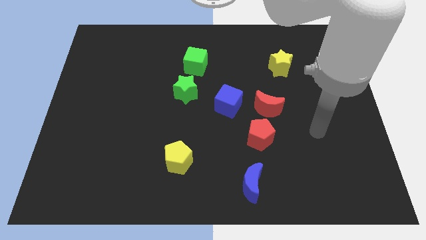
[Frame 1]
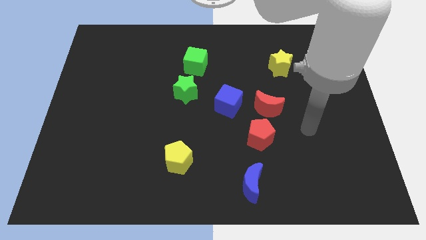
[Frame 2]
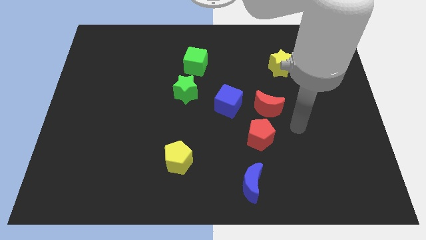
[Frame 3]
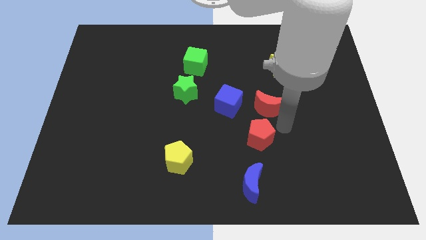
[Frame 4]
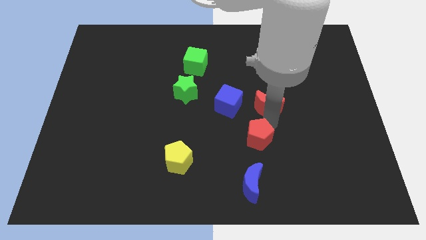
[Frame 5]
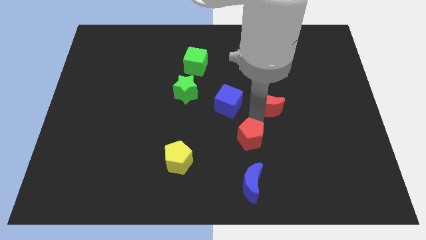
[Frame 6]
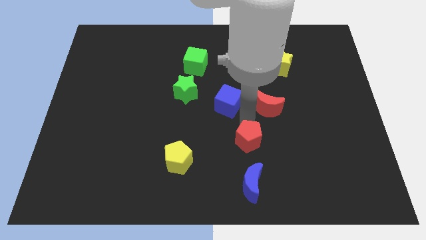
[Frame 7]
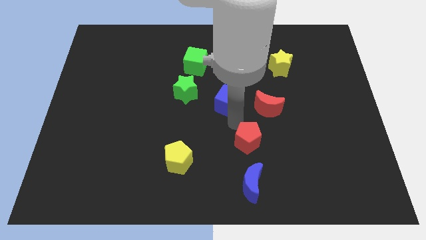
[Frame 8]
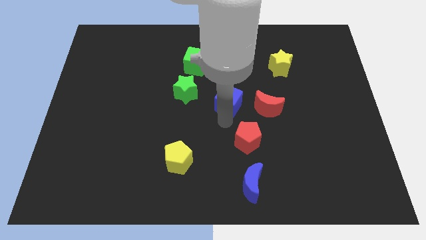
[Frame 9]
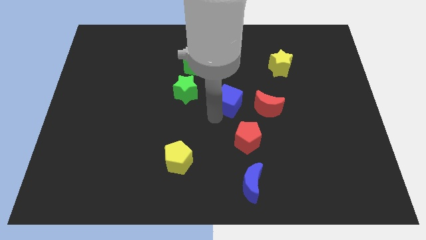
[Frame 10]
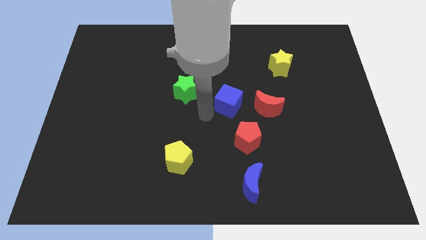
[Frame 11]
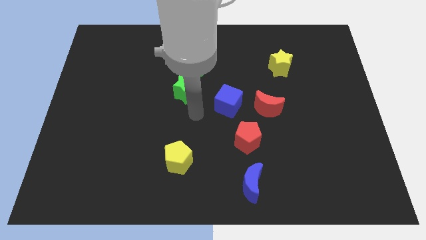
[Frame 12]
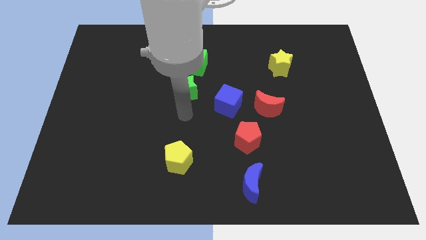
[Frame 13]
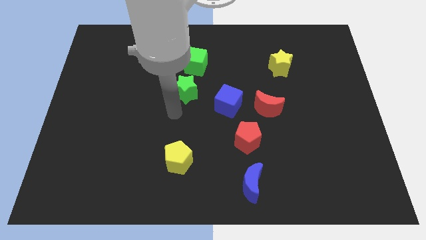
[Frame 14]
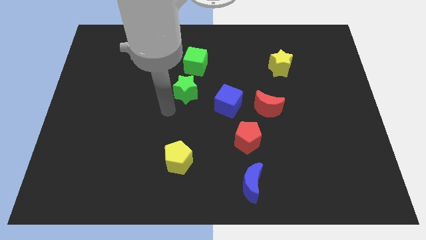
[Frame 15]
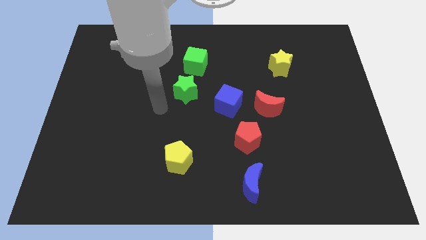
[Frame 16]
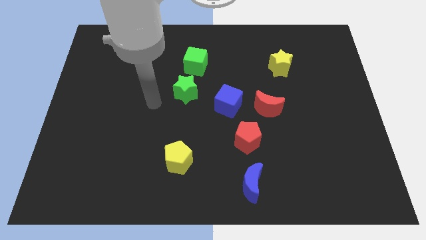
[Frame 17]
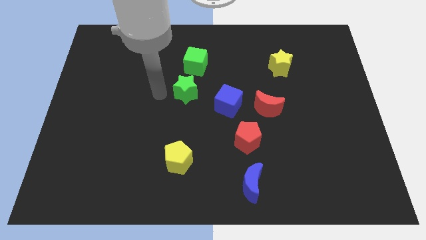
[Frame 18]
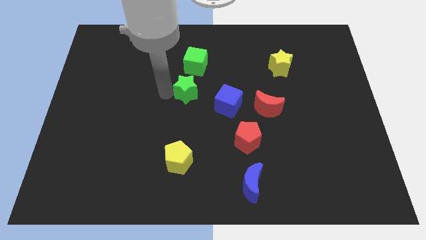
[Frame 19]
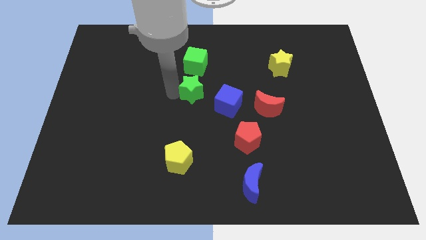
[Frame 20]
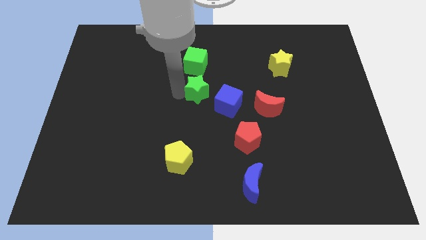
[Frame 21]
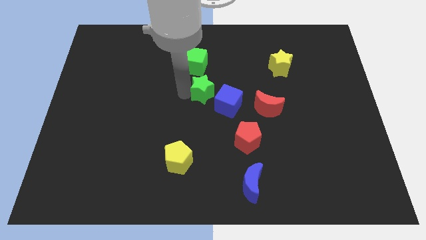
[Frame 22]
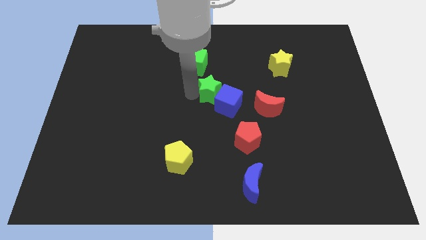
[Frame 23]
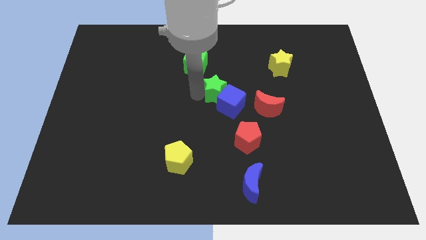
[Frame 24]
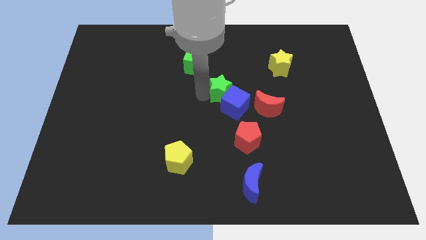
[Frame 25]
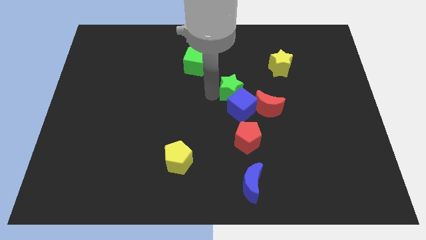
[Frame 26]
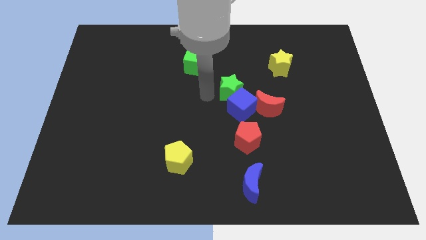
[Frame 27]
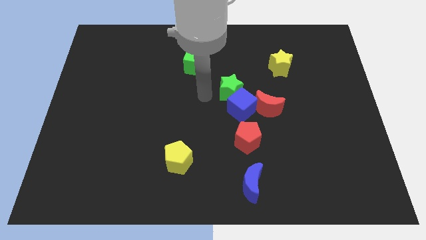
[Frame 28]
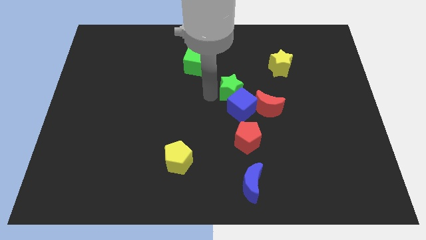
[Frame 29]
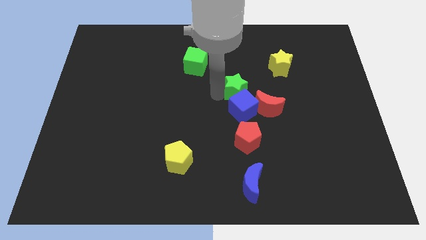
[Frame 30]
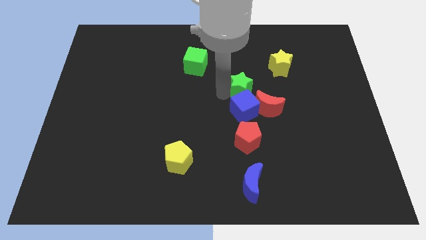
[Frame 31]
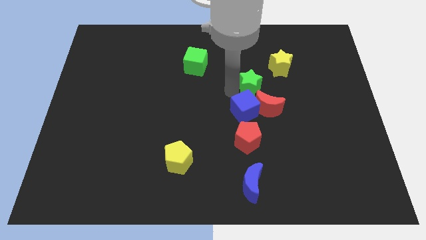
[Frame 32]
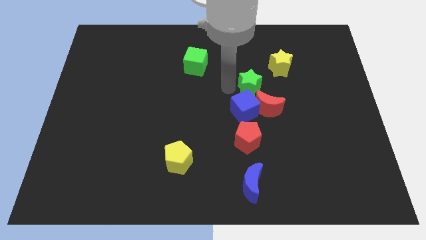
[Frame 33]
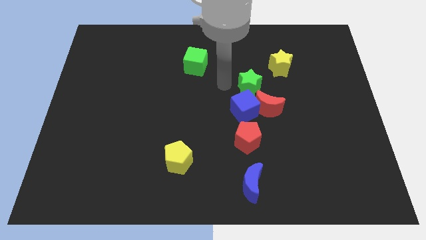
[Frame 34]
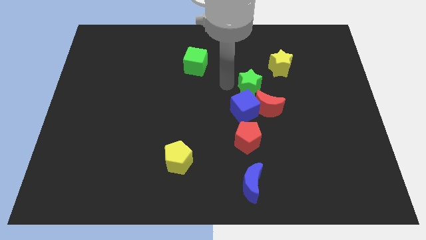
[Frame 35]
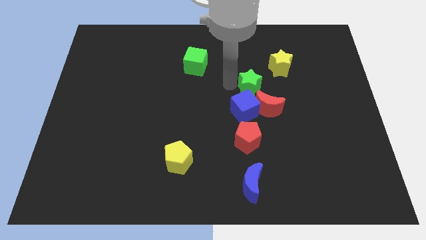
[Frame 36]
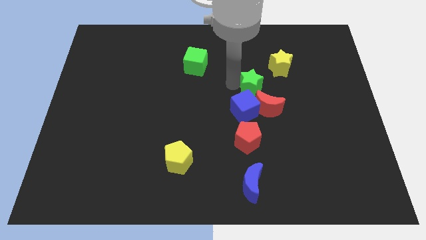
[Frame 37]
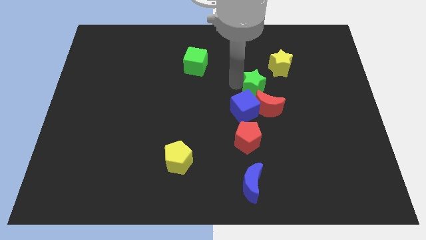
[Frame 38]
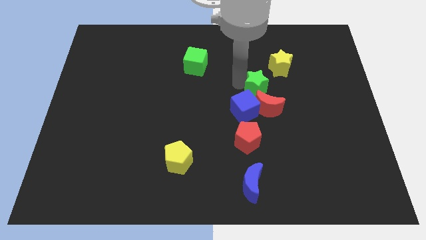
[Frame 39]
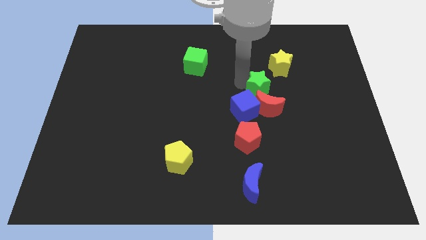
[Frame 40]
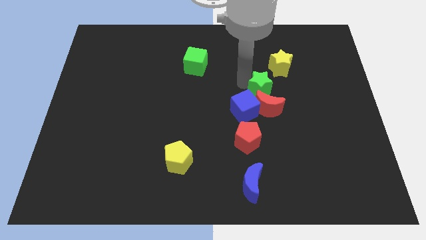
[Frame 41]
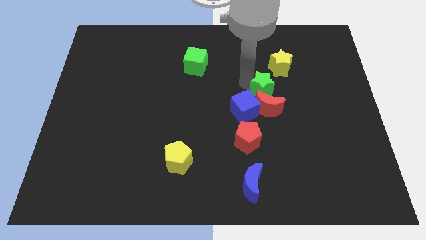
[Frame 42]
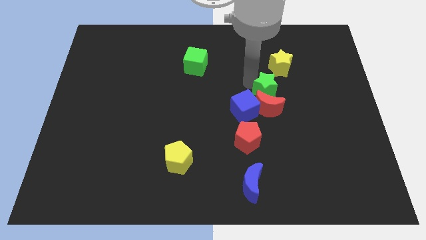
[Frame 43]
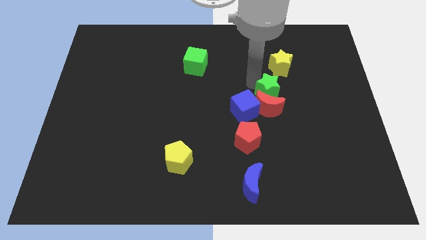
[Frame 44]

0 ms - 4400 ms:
move the green star to the right

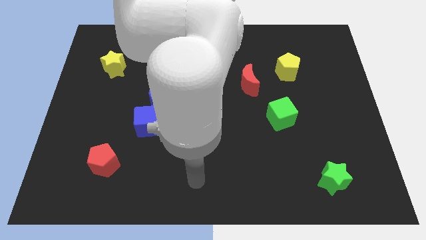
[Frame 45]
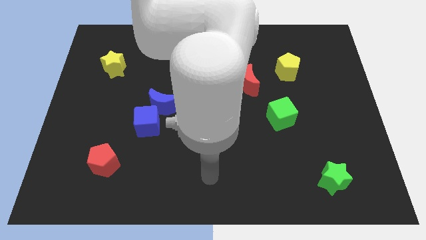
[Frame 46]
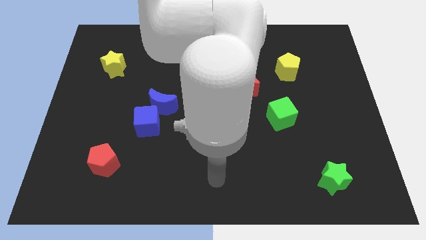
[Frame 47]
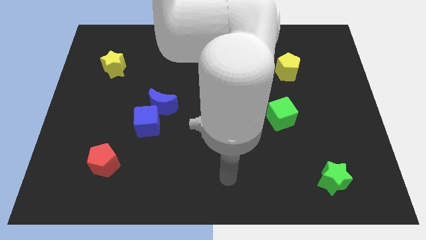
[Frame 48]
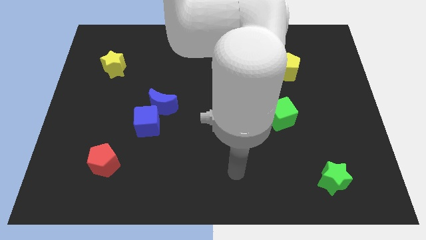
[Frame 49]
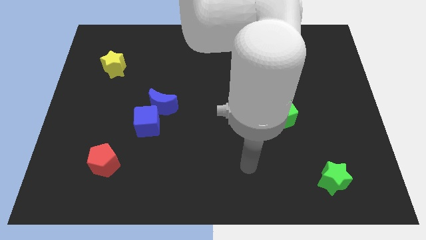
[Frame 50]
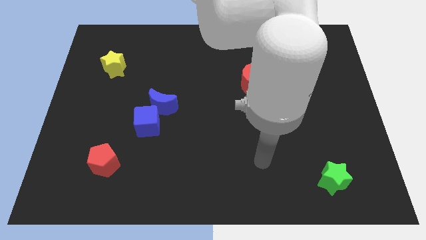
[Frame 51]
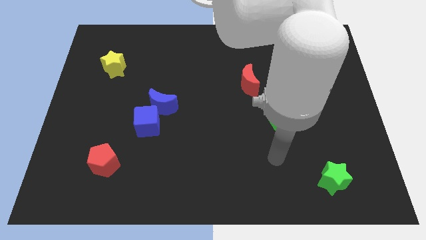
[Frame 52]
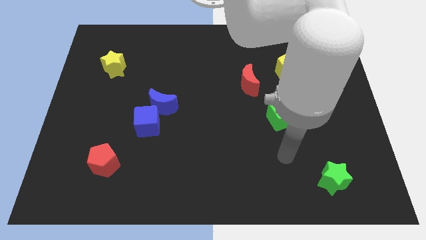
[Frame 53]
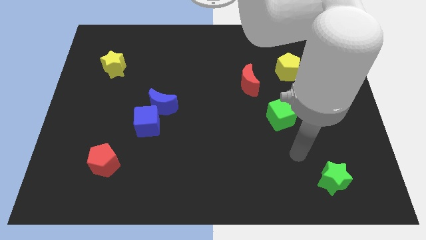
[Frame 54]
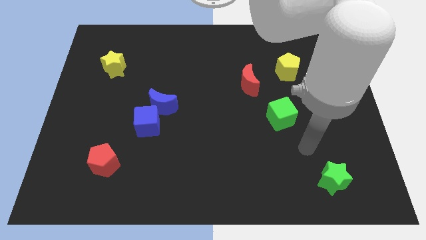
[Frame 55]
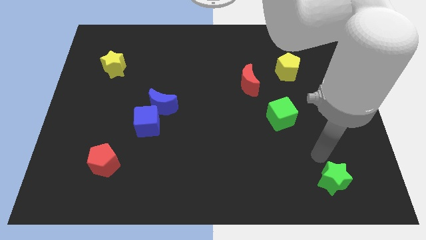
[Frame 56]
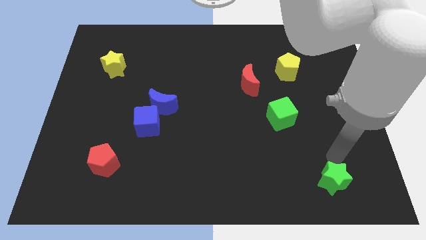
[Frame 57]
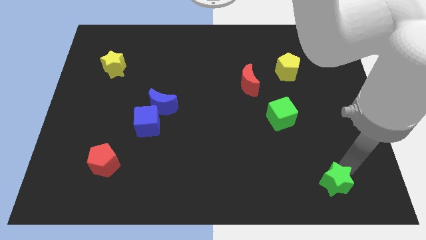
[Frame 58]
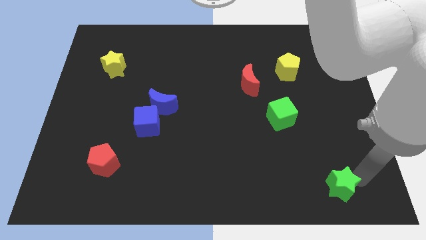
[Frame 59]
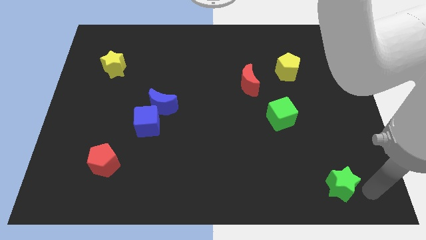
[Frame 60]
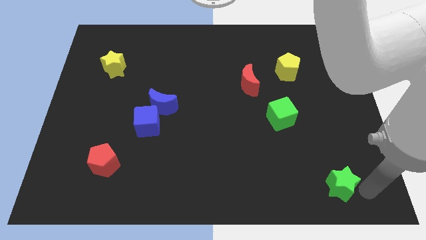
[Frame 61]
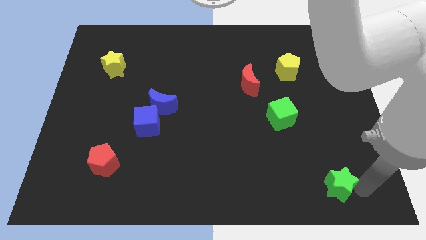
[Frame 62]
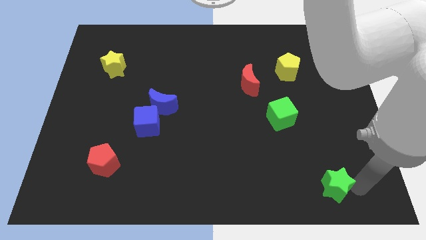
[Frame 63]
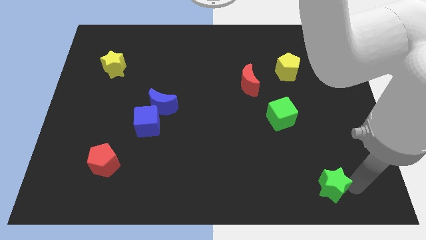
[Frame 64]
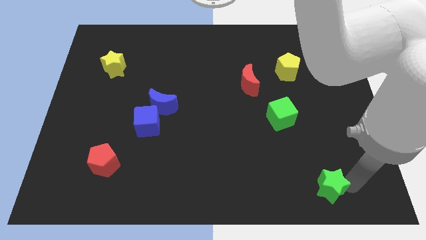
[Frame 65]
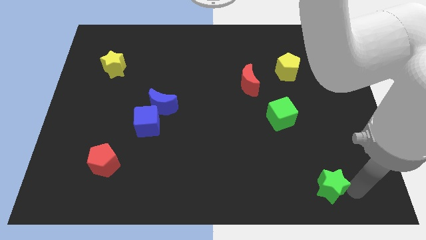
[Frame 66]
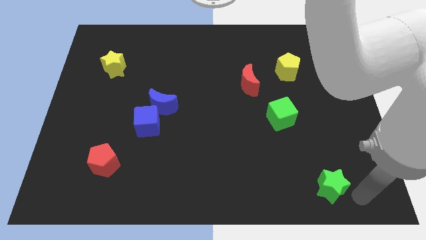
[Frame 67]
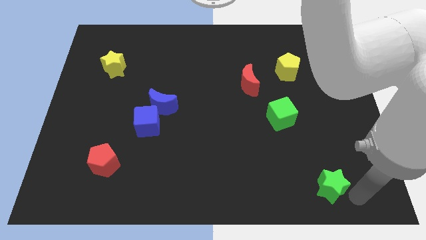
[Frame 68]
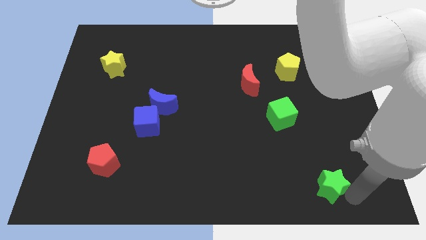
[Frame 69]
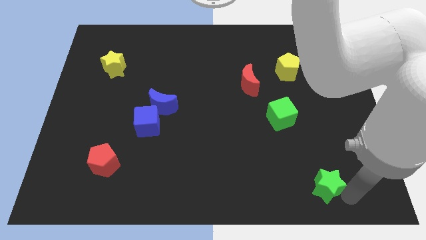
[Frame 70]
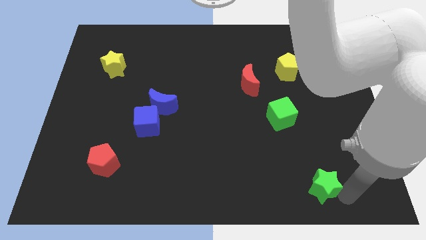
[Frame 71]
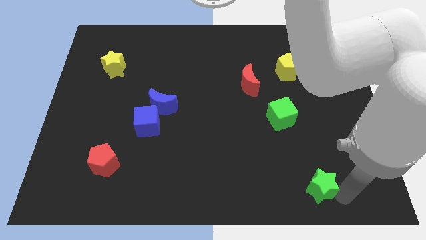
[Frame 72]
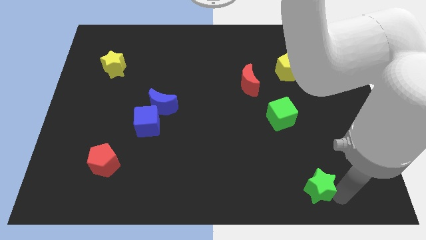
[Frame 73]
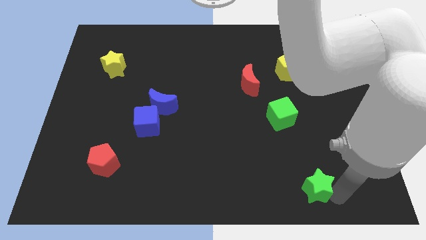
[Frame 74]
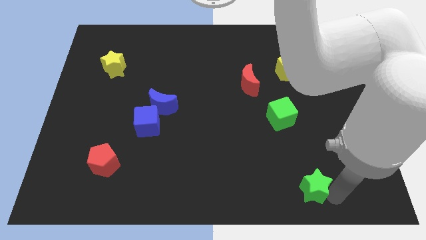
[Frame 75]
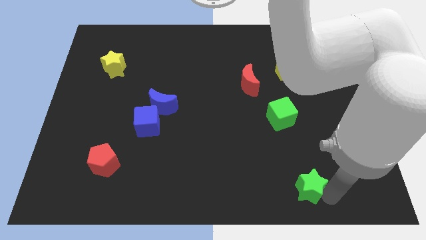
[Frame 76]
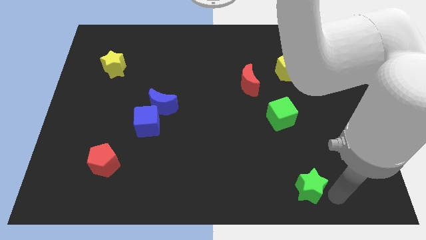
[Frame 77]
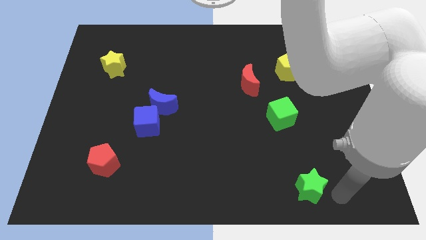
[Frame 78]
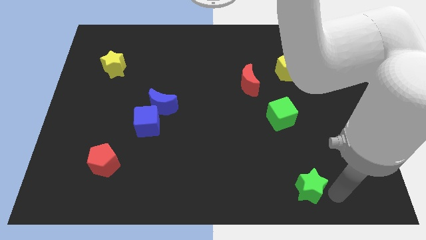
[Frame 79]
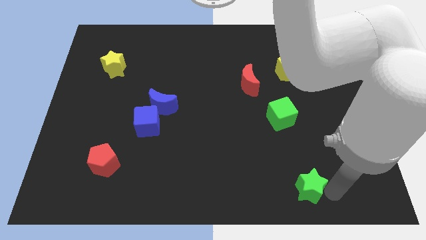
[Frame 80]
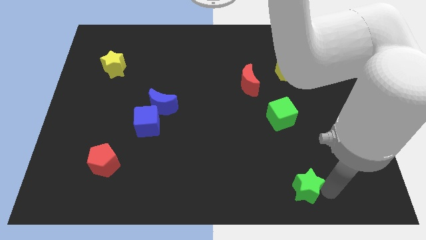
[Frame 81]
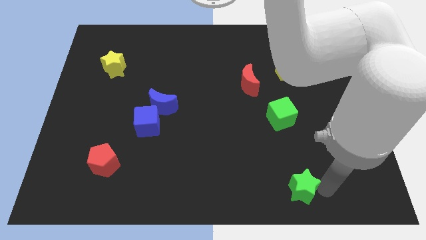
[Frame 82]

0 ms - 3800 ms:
slightly move the green star left

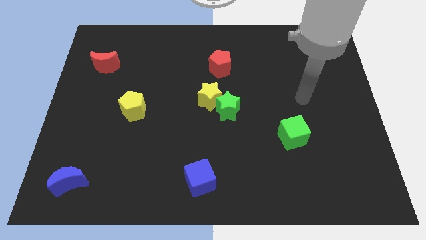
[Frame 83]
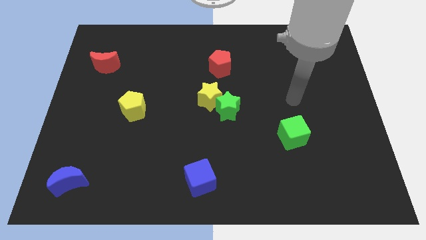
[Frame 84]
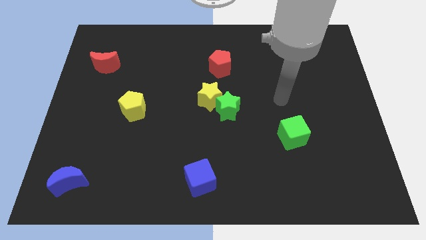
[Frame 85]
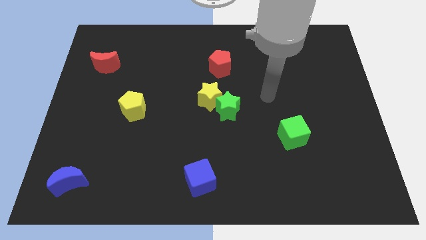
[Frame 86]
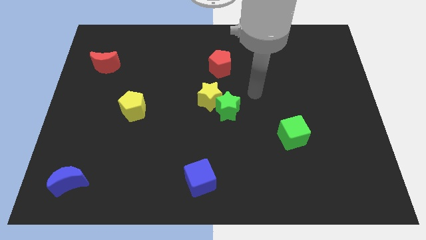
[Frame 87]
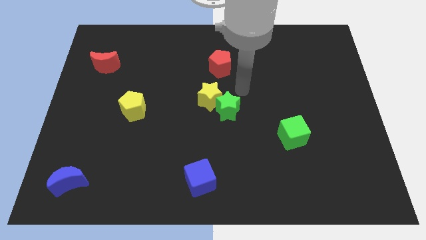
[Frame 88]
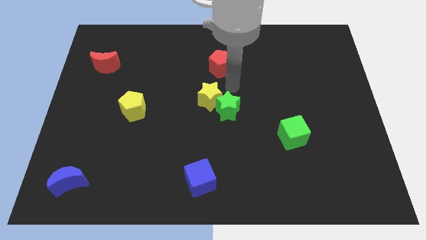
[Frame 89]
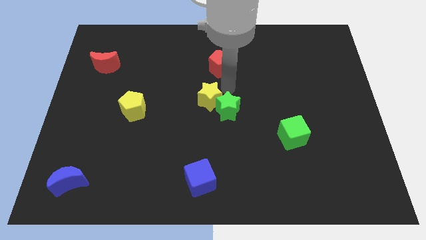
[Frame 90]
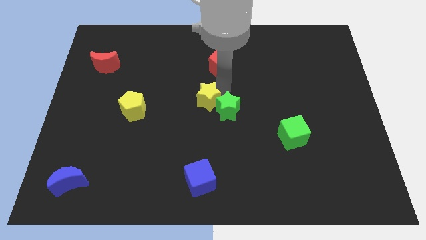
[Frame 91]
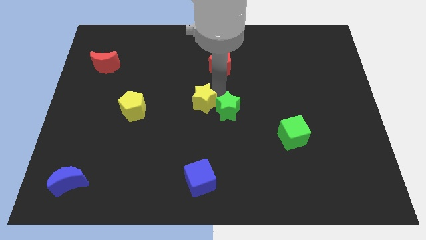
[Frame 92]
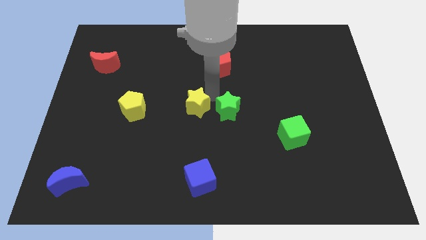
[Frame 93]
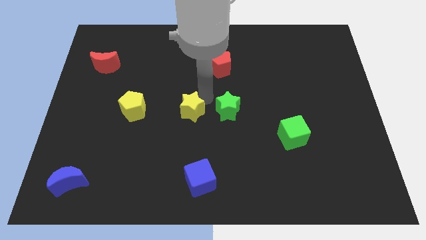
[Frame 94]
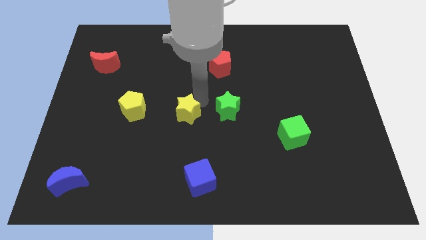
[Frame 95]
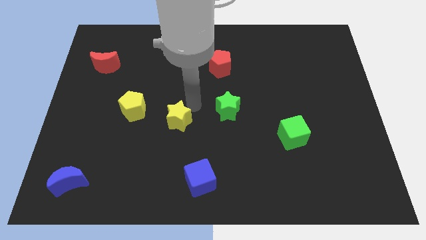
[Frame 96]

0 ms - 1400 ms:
slide the yellow star down and to the left diagonally a little
